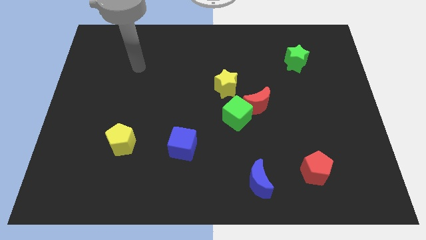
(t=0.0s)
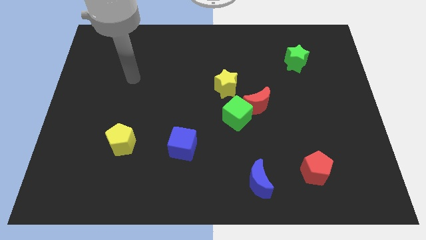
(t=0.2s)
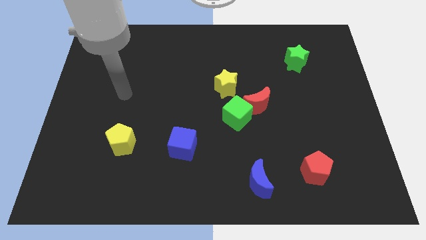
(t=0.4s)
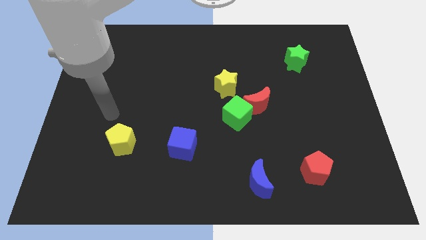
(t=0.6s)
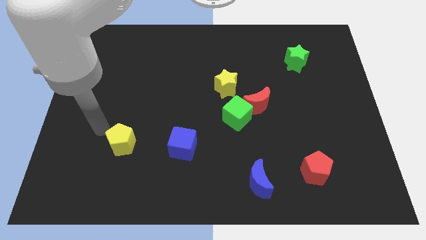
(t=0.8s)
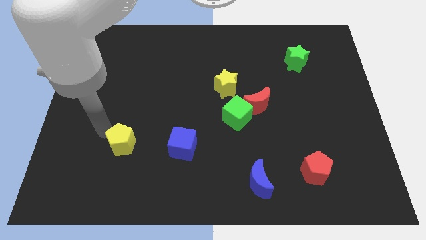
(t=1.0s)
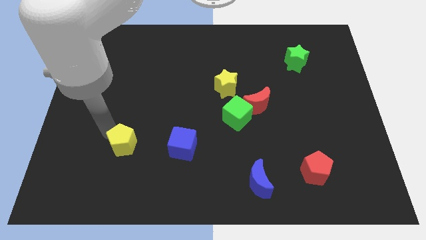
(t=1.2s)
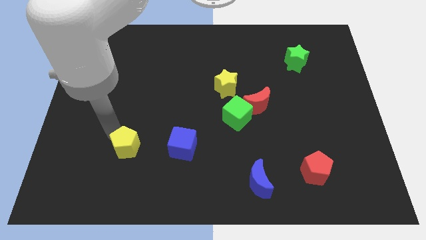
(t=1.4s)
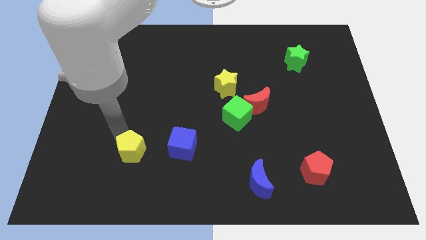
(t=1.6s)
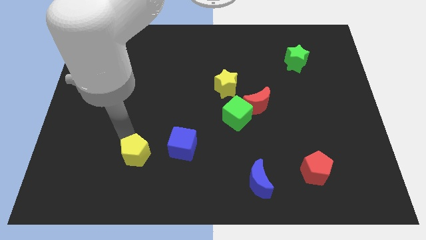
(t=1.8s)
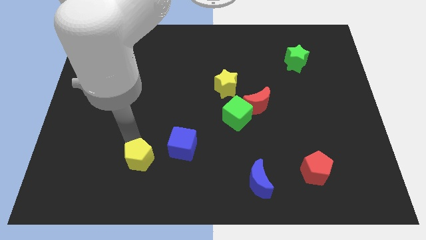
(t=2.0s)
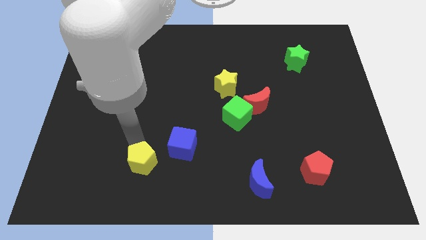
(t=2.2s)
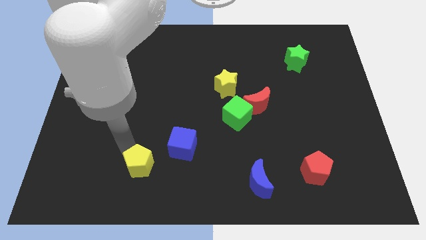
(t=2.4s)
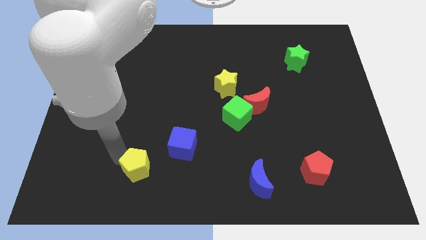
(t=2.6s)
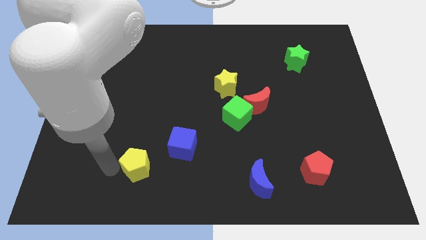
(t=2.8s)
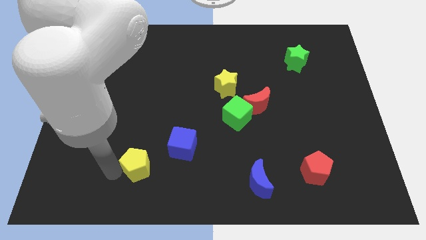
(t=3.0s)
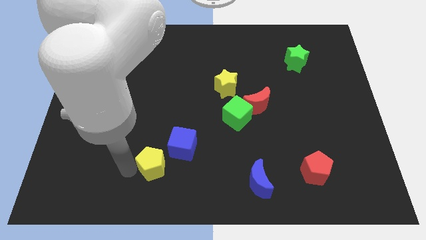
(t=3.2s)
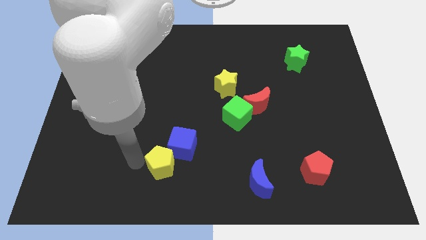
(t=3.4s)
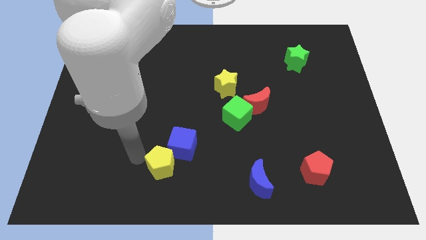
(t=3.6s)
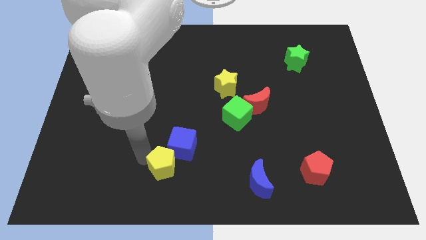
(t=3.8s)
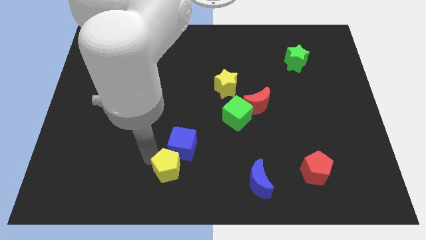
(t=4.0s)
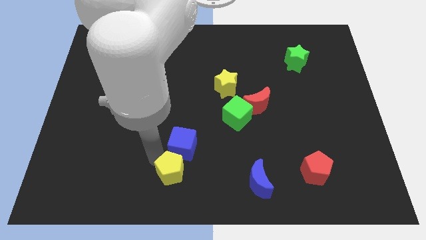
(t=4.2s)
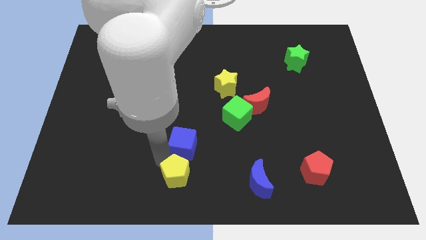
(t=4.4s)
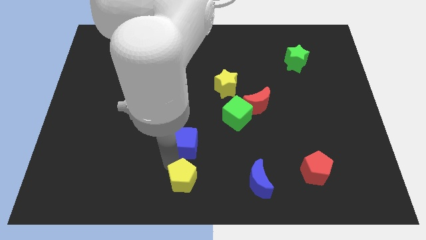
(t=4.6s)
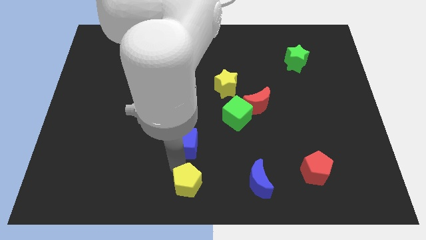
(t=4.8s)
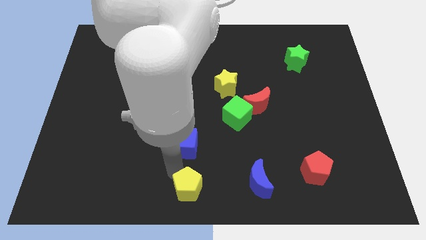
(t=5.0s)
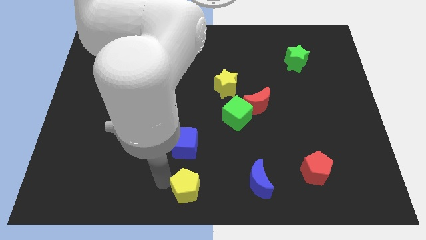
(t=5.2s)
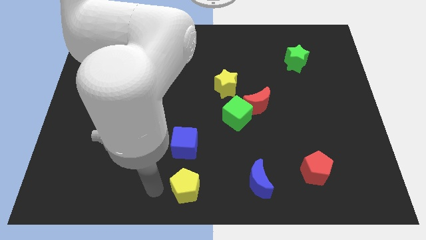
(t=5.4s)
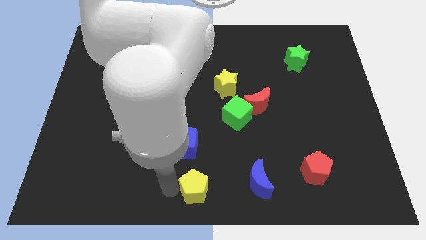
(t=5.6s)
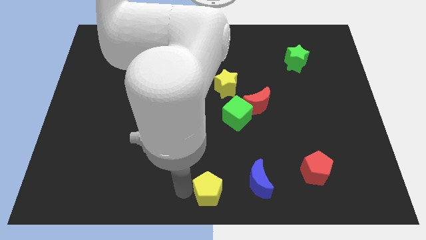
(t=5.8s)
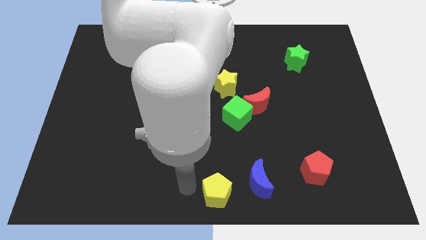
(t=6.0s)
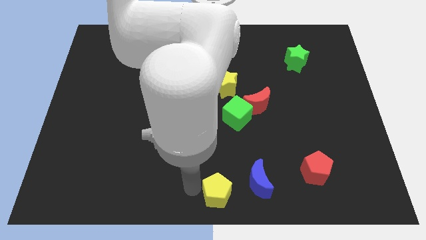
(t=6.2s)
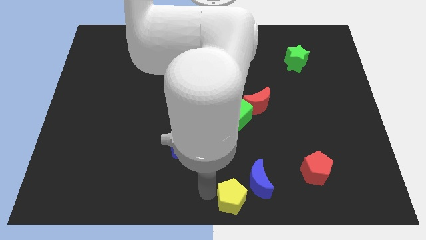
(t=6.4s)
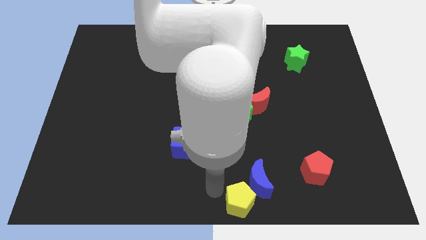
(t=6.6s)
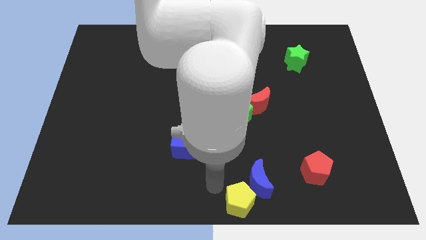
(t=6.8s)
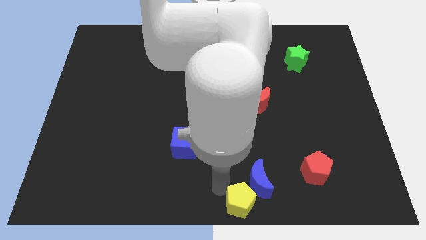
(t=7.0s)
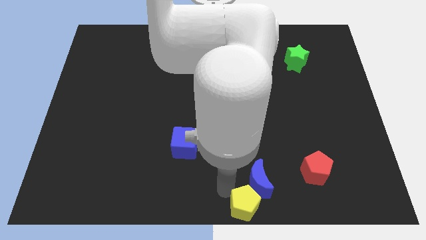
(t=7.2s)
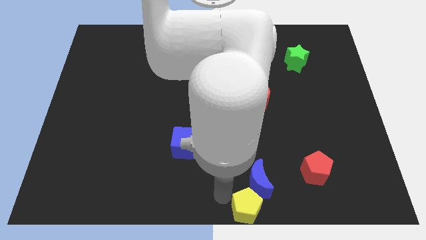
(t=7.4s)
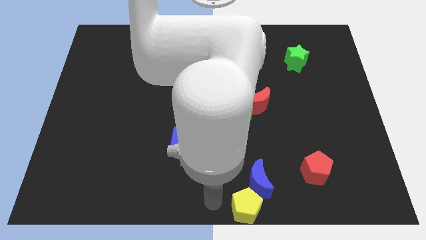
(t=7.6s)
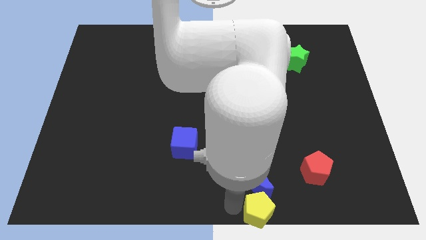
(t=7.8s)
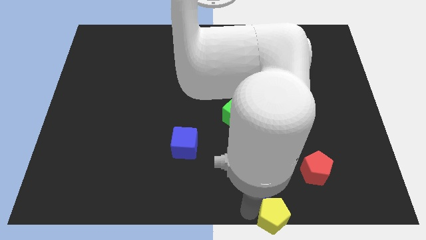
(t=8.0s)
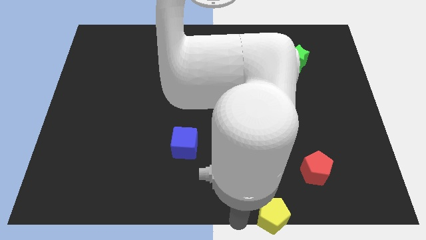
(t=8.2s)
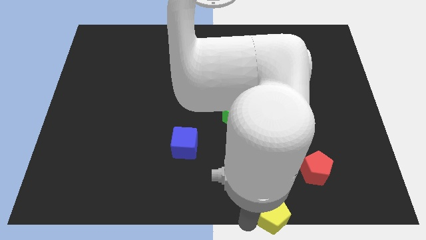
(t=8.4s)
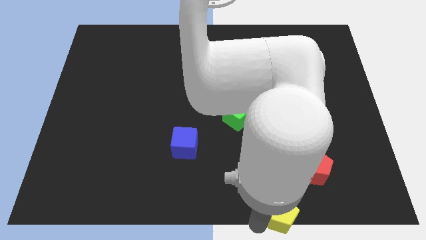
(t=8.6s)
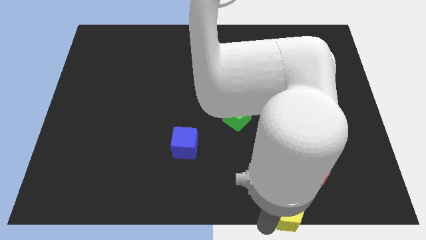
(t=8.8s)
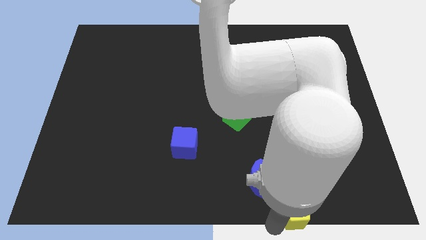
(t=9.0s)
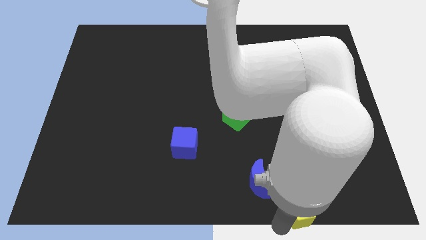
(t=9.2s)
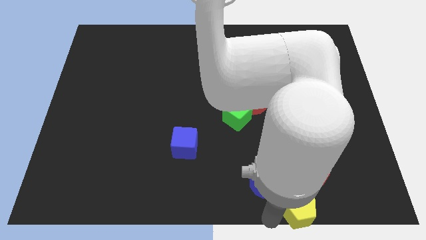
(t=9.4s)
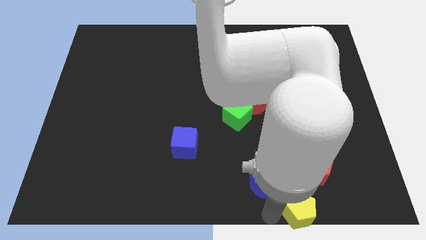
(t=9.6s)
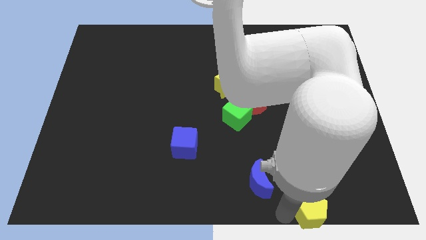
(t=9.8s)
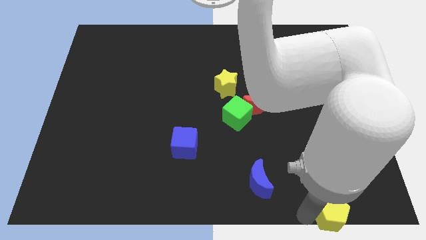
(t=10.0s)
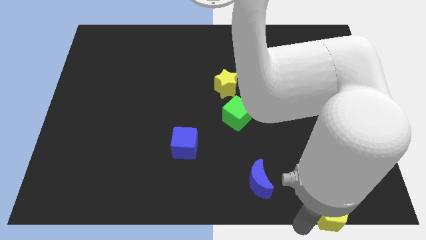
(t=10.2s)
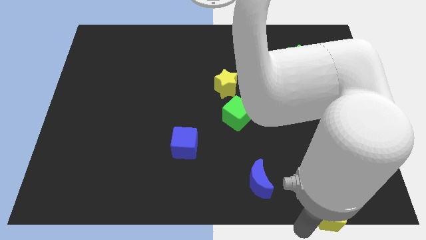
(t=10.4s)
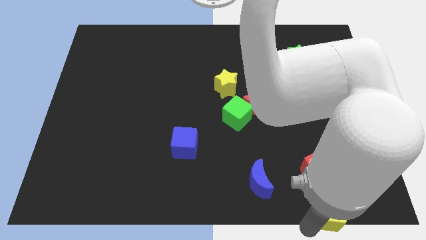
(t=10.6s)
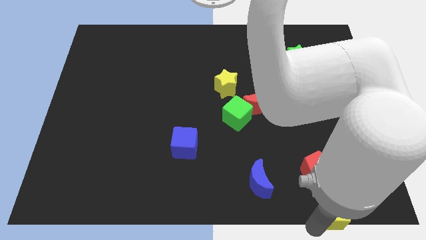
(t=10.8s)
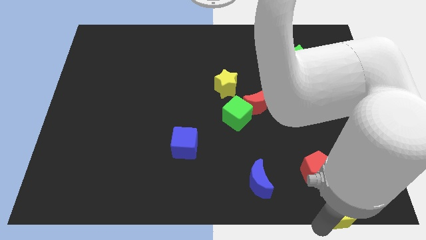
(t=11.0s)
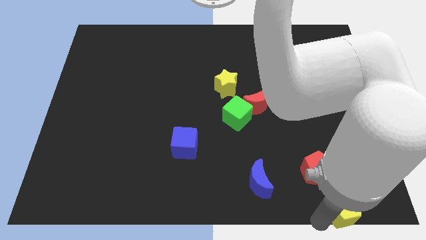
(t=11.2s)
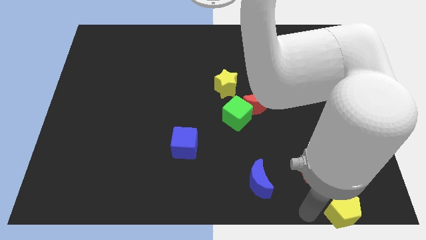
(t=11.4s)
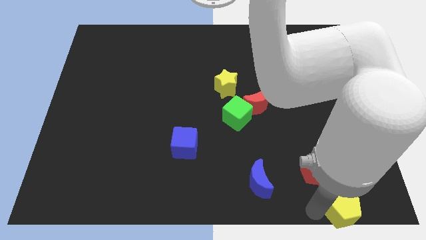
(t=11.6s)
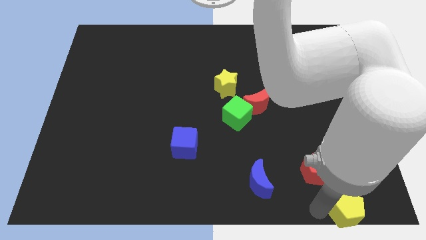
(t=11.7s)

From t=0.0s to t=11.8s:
slide the yellow pentagon to the bottom right corner

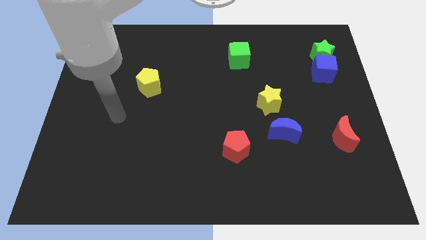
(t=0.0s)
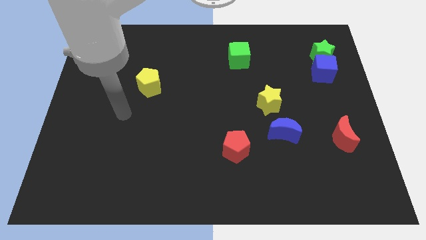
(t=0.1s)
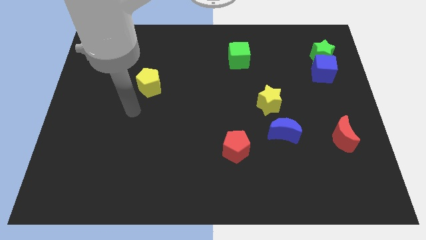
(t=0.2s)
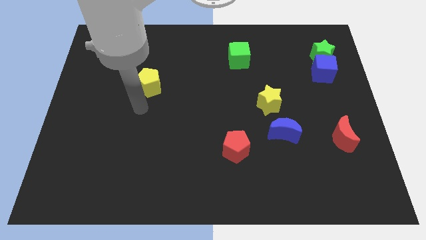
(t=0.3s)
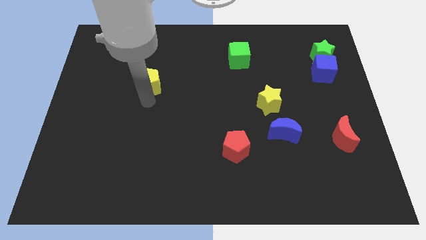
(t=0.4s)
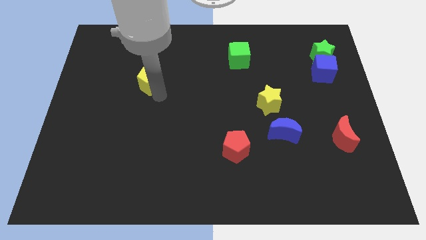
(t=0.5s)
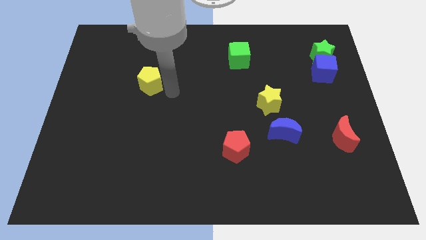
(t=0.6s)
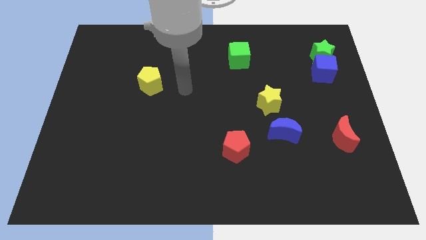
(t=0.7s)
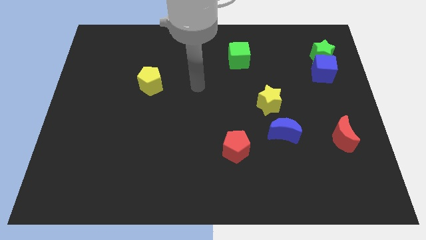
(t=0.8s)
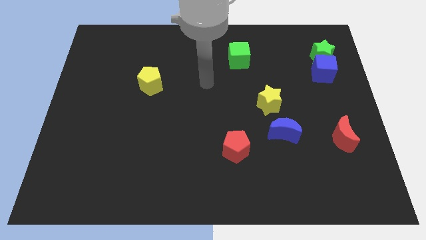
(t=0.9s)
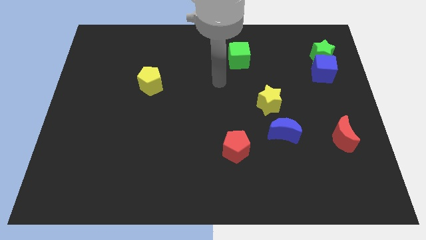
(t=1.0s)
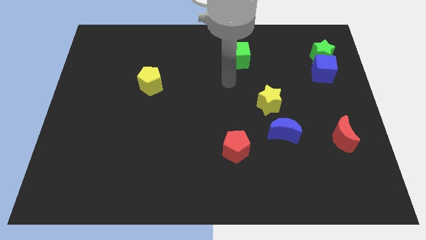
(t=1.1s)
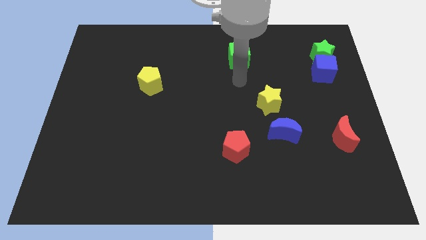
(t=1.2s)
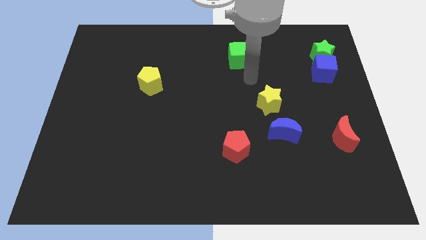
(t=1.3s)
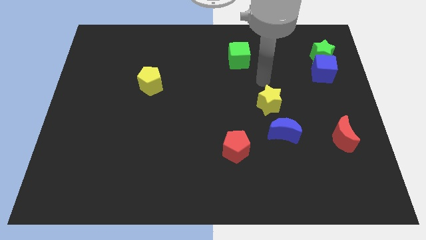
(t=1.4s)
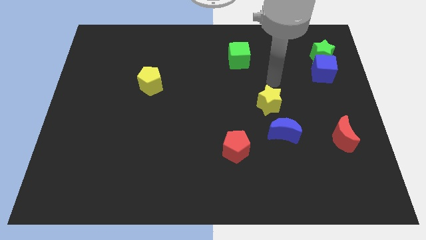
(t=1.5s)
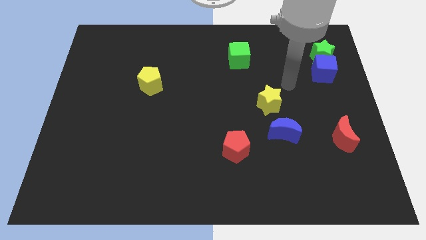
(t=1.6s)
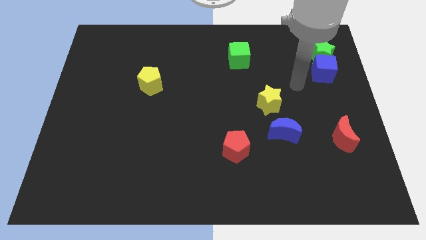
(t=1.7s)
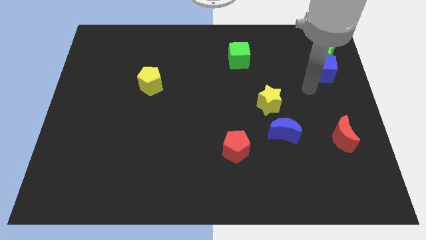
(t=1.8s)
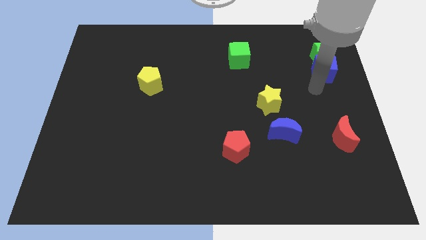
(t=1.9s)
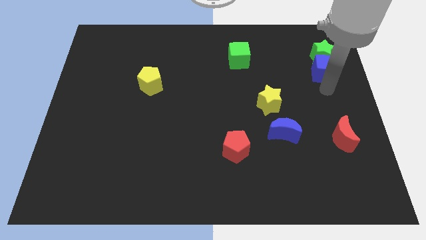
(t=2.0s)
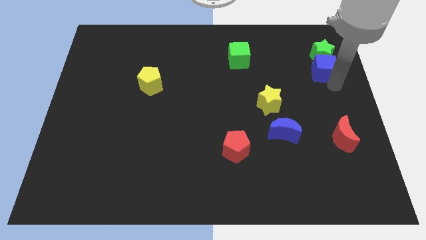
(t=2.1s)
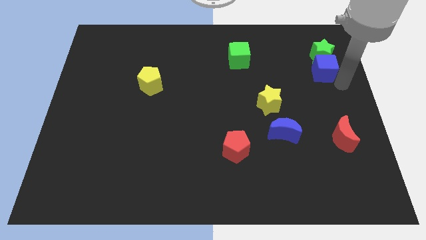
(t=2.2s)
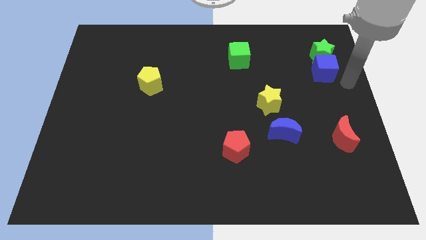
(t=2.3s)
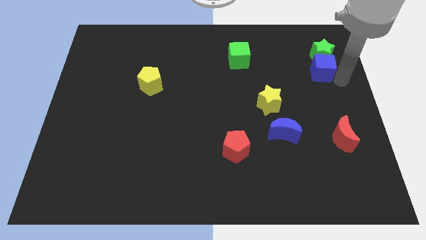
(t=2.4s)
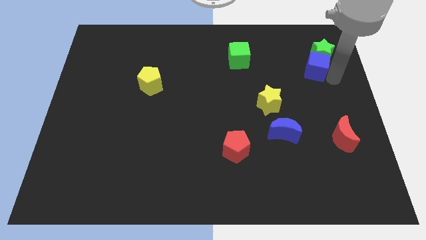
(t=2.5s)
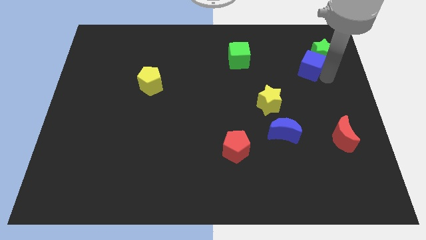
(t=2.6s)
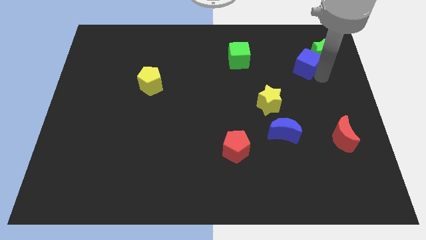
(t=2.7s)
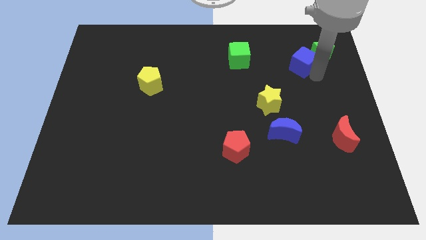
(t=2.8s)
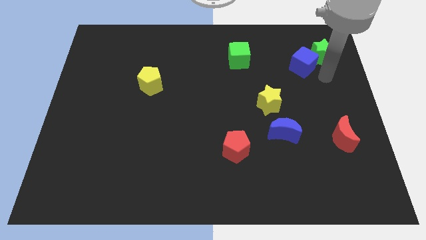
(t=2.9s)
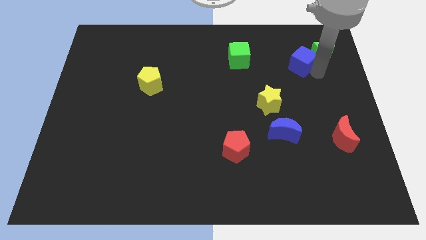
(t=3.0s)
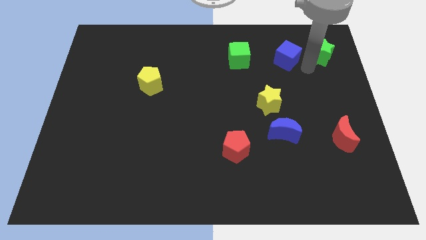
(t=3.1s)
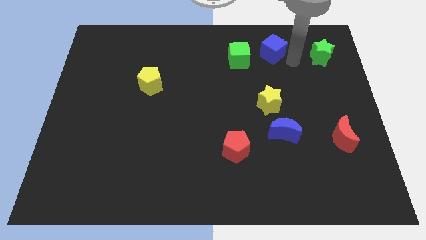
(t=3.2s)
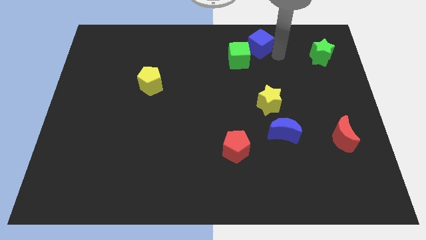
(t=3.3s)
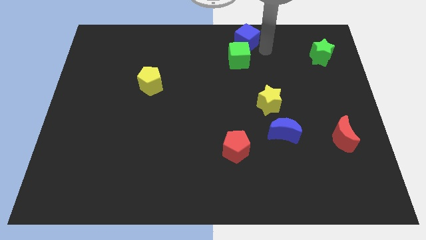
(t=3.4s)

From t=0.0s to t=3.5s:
put the blue cube to the top side
